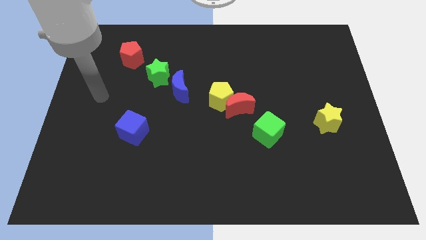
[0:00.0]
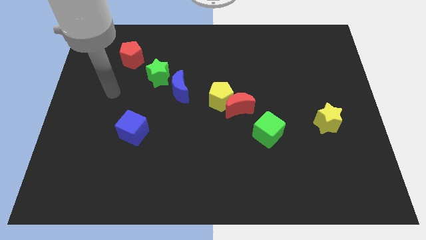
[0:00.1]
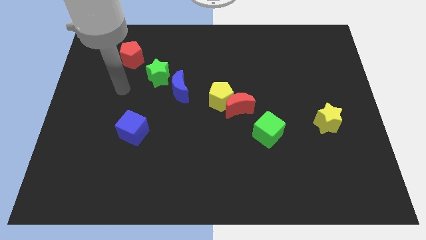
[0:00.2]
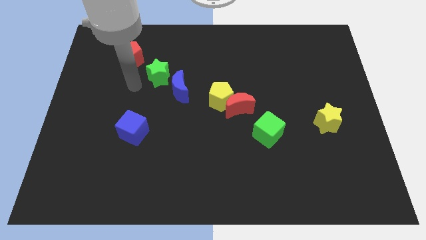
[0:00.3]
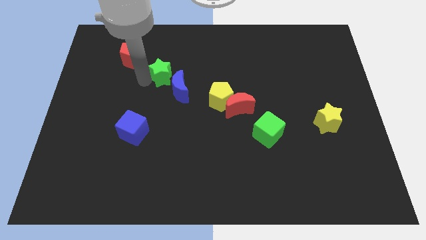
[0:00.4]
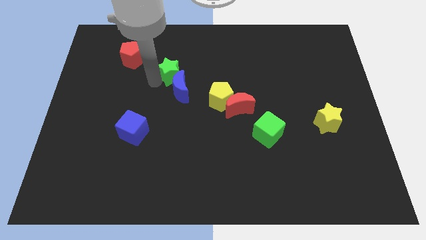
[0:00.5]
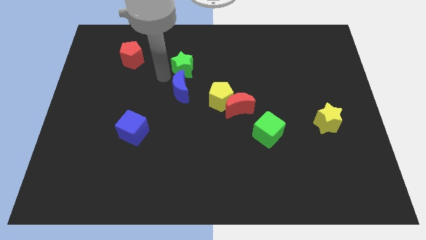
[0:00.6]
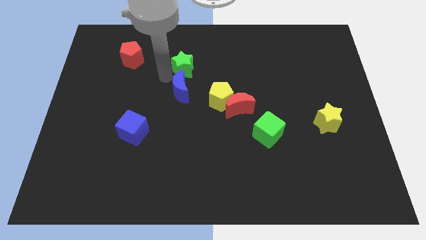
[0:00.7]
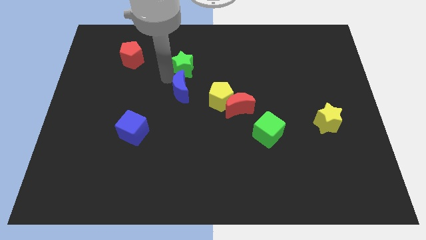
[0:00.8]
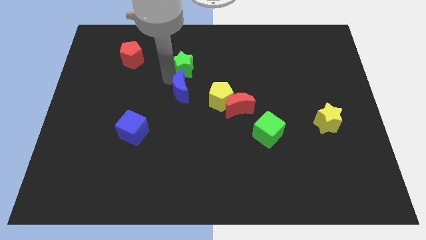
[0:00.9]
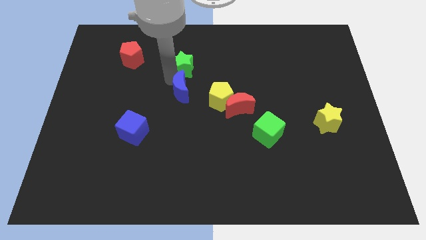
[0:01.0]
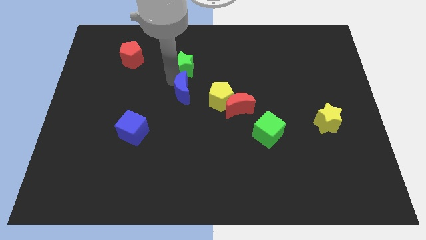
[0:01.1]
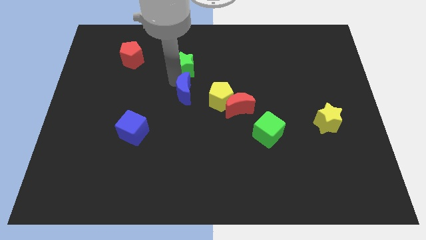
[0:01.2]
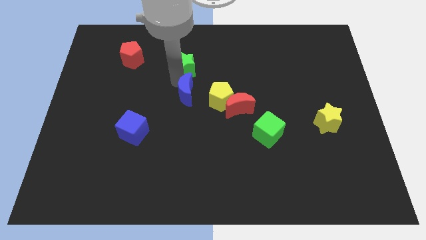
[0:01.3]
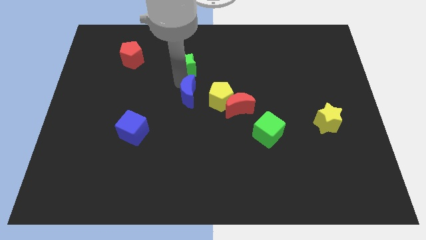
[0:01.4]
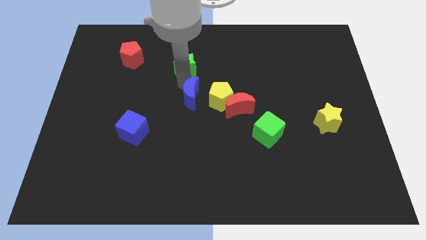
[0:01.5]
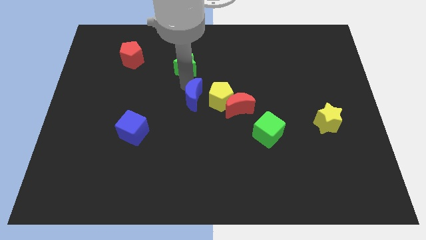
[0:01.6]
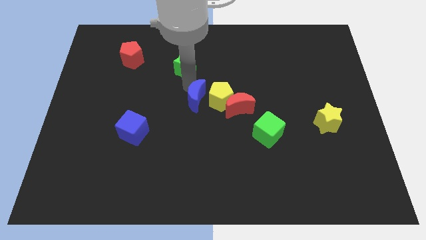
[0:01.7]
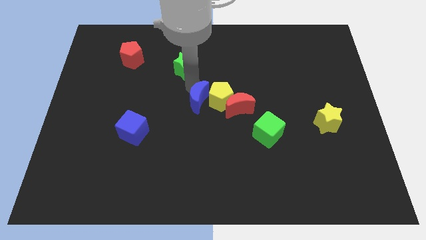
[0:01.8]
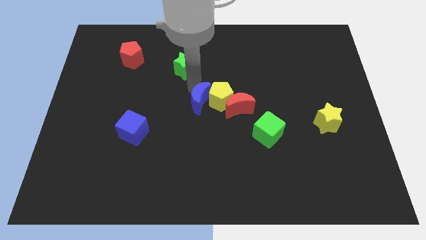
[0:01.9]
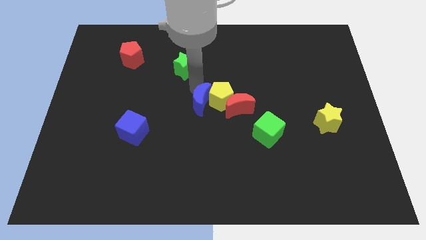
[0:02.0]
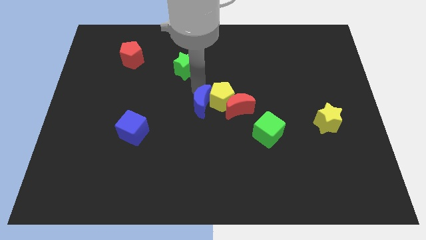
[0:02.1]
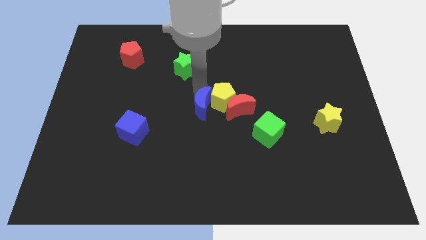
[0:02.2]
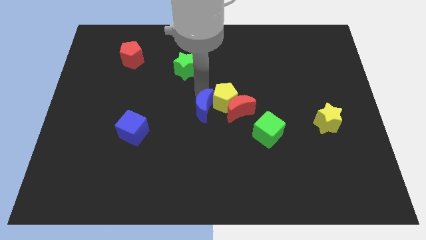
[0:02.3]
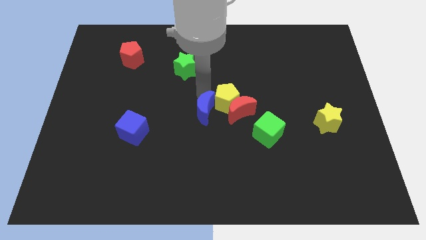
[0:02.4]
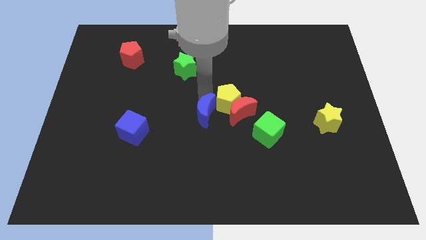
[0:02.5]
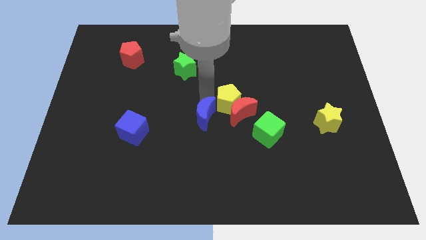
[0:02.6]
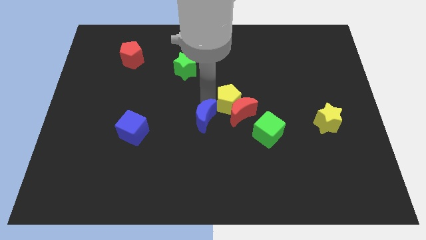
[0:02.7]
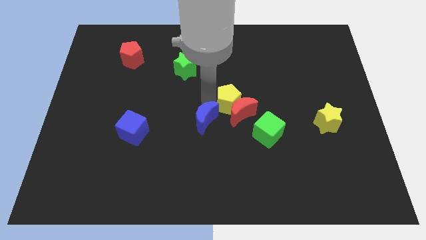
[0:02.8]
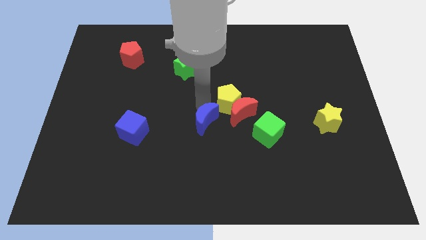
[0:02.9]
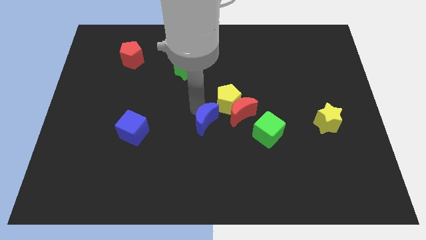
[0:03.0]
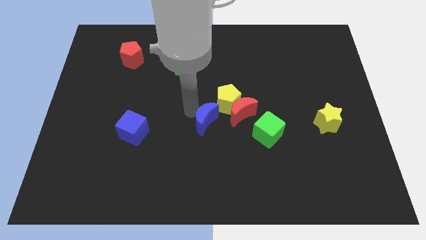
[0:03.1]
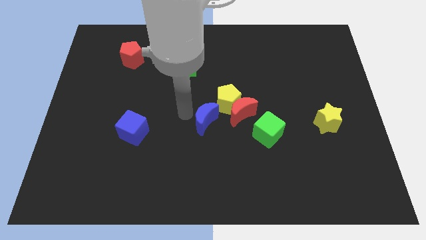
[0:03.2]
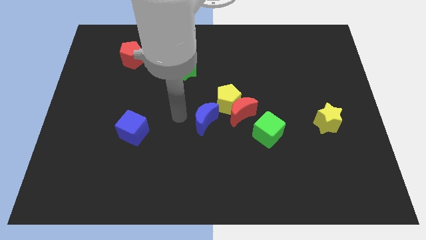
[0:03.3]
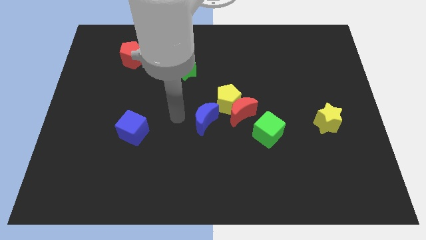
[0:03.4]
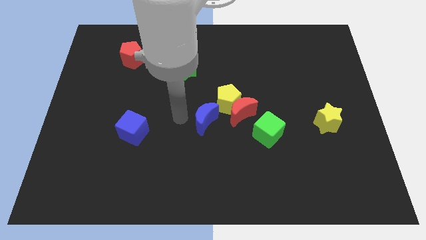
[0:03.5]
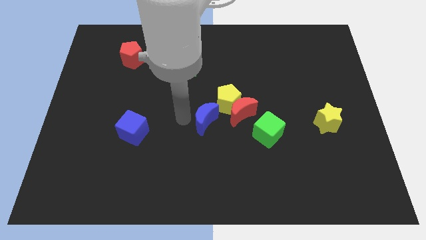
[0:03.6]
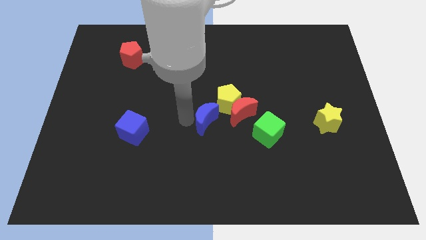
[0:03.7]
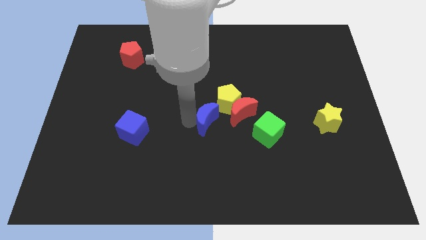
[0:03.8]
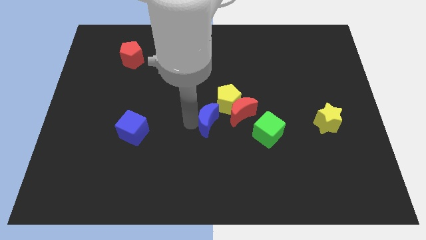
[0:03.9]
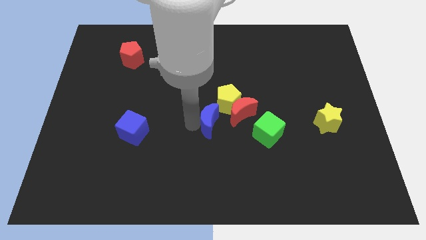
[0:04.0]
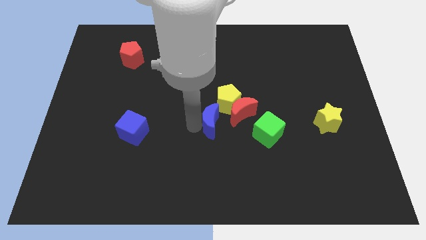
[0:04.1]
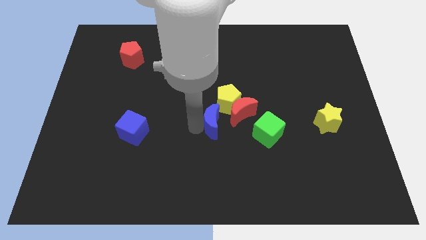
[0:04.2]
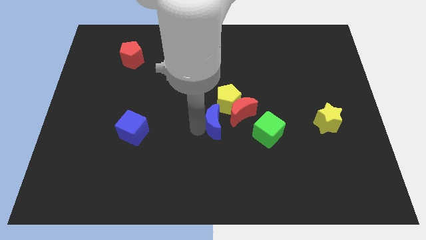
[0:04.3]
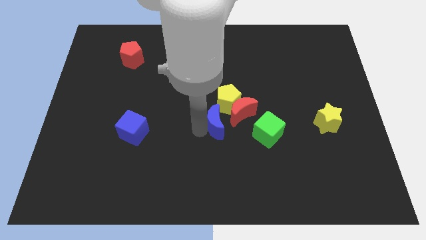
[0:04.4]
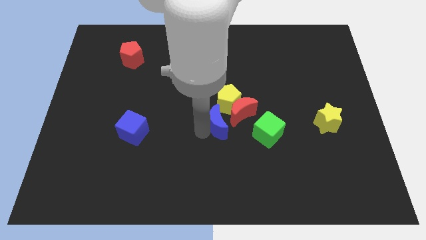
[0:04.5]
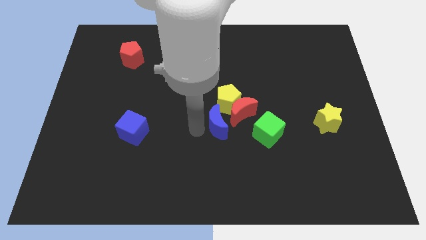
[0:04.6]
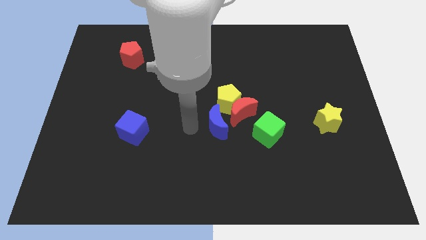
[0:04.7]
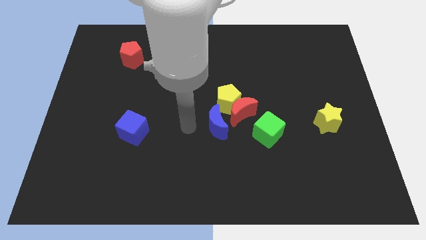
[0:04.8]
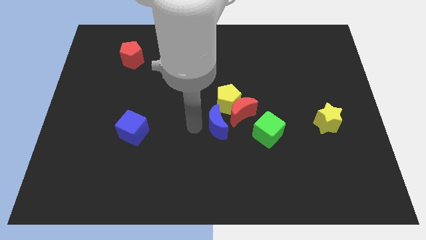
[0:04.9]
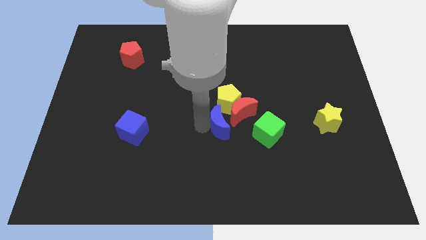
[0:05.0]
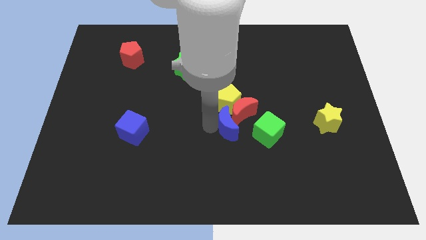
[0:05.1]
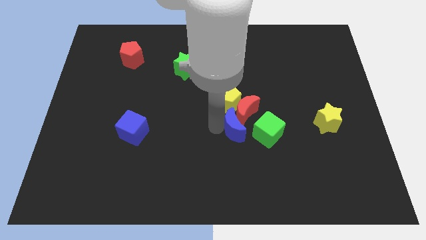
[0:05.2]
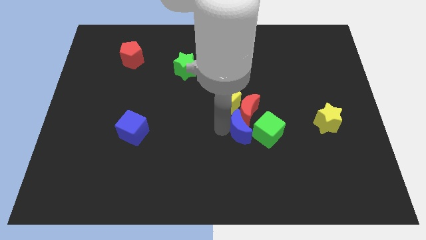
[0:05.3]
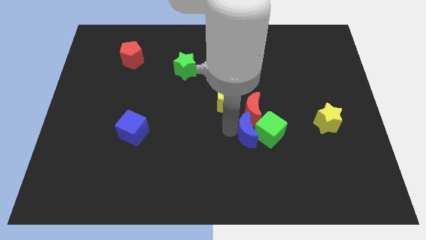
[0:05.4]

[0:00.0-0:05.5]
put the blue moon close to the green cube

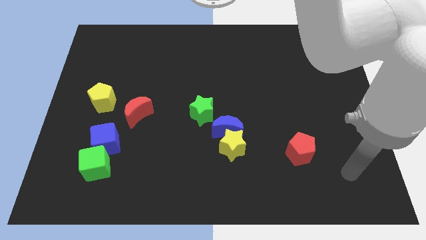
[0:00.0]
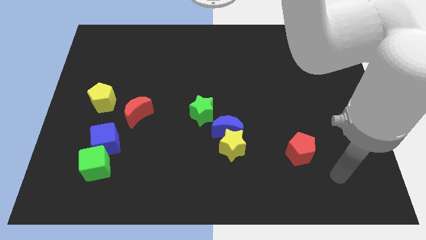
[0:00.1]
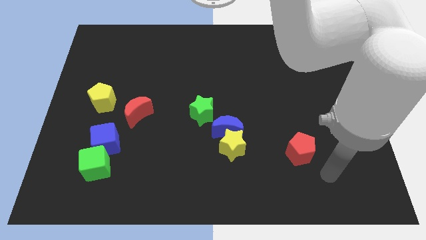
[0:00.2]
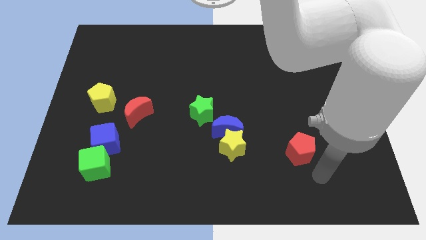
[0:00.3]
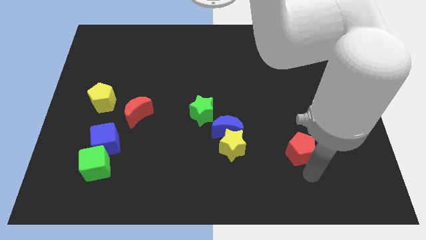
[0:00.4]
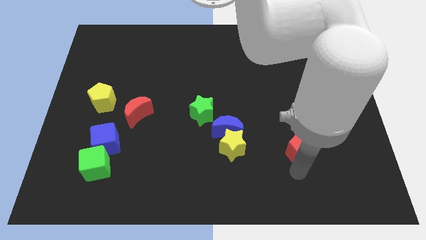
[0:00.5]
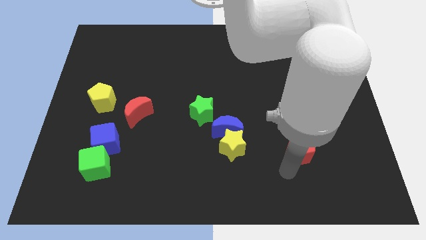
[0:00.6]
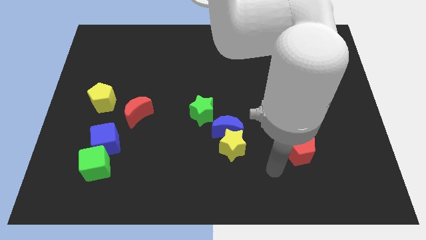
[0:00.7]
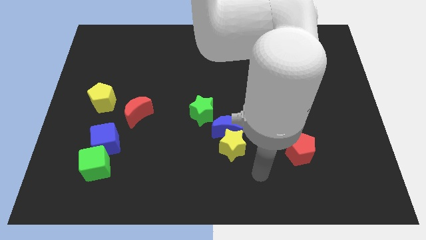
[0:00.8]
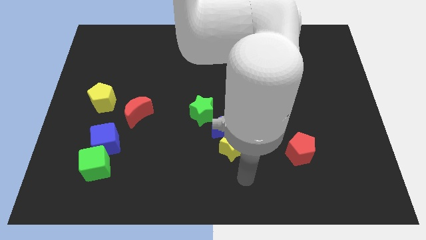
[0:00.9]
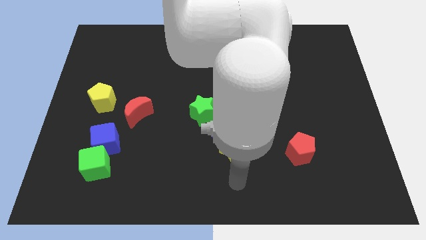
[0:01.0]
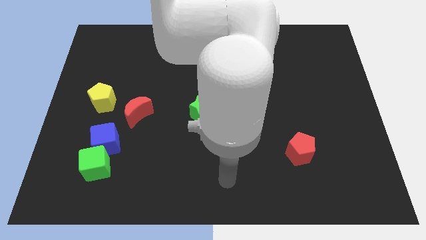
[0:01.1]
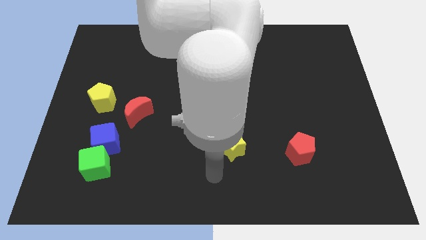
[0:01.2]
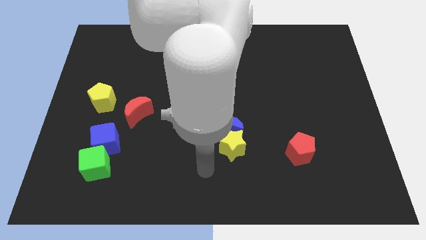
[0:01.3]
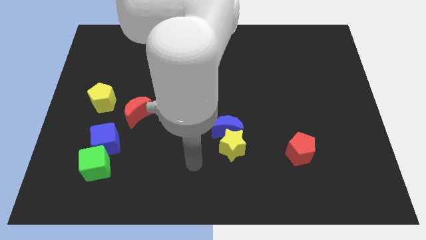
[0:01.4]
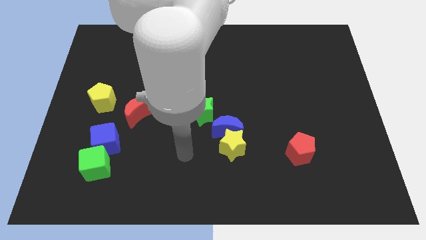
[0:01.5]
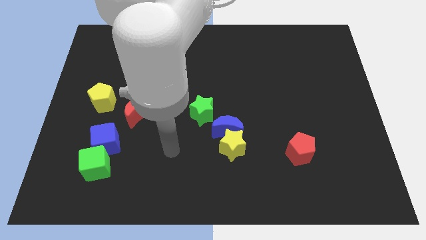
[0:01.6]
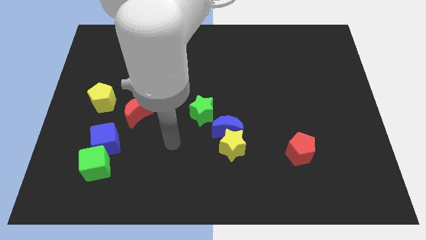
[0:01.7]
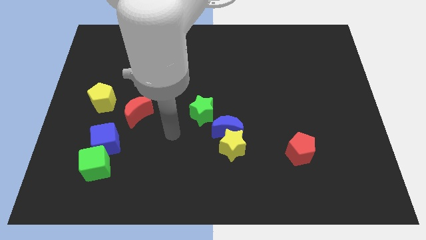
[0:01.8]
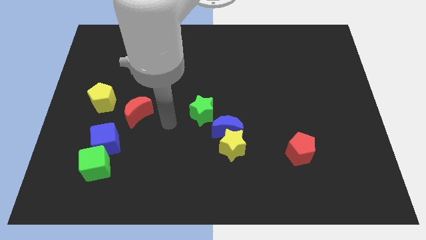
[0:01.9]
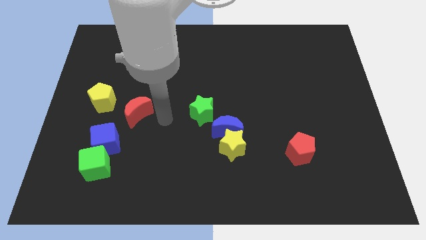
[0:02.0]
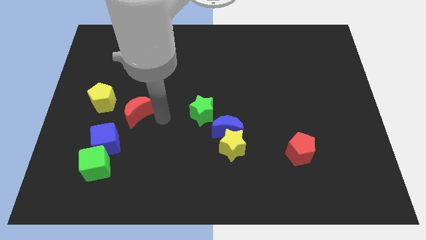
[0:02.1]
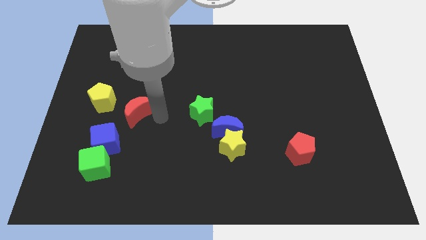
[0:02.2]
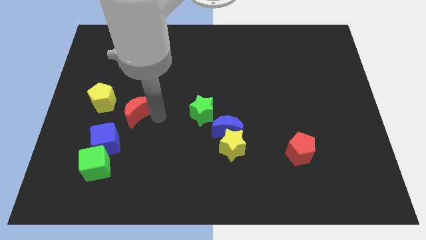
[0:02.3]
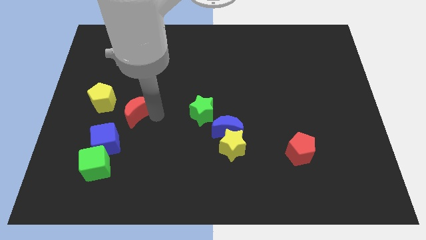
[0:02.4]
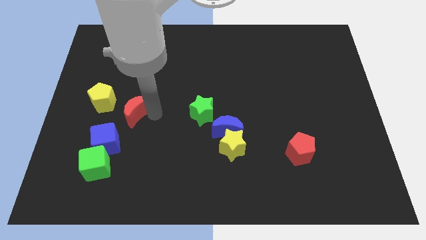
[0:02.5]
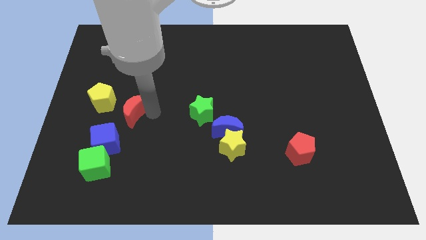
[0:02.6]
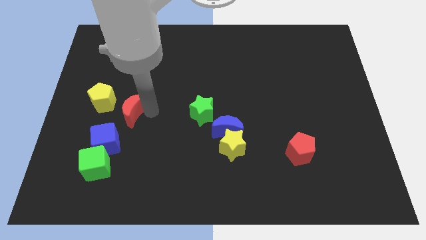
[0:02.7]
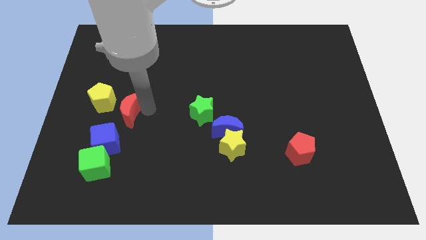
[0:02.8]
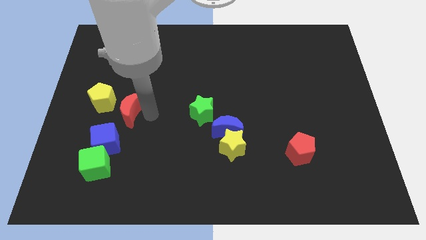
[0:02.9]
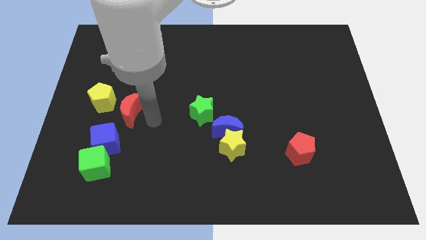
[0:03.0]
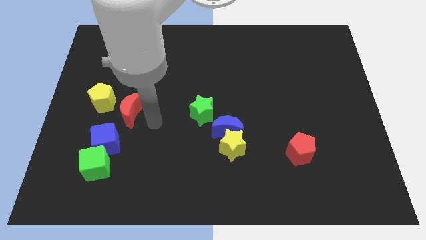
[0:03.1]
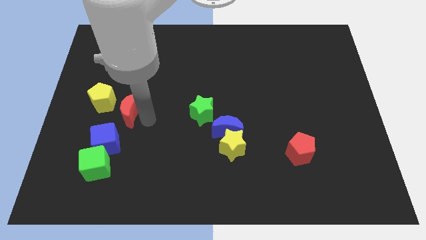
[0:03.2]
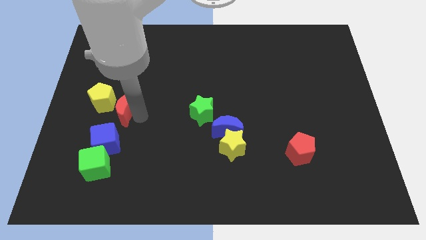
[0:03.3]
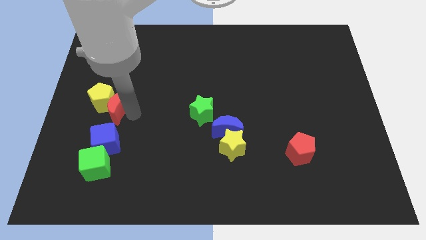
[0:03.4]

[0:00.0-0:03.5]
move the red moon towards the yellow pentagon
